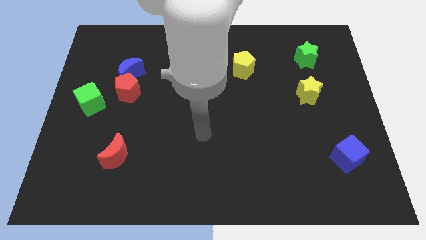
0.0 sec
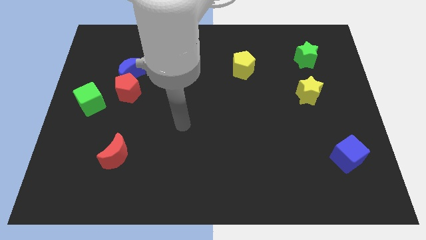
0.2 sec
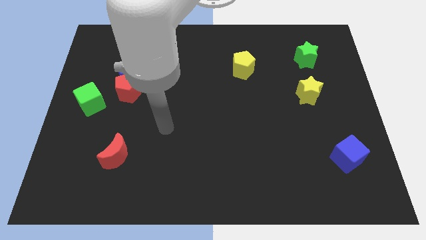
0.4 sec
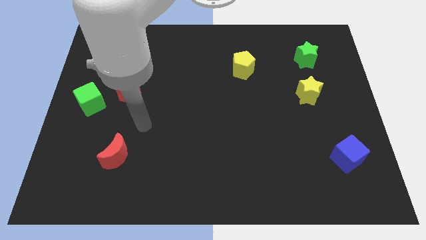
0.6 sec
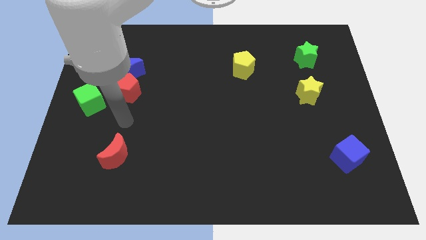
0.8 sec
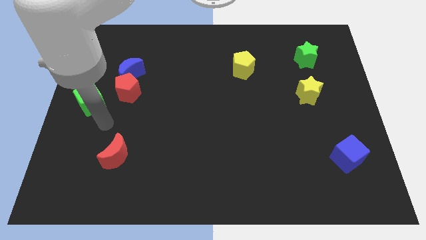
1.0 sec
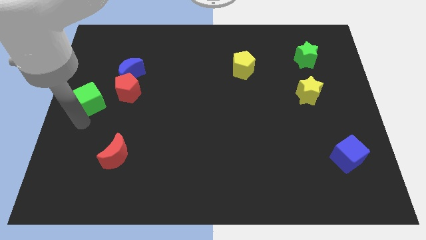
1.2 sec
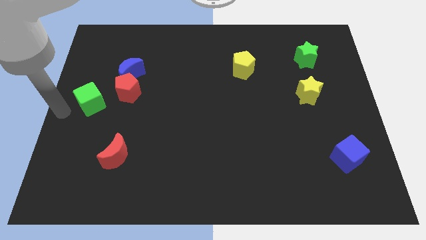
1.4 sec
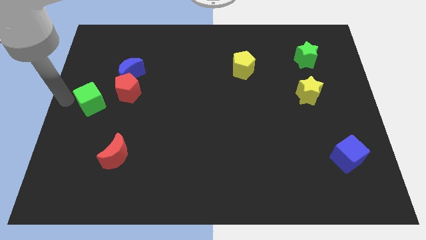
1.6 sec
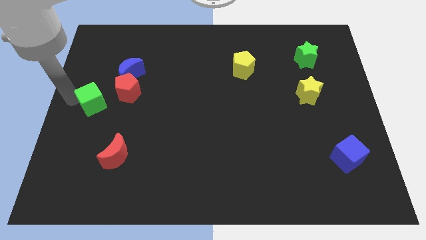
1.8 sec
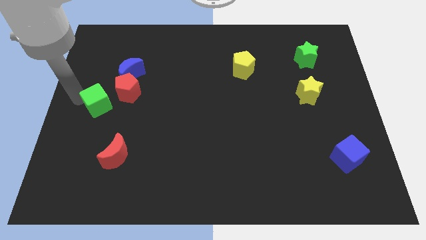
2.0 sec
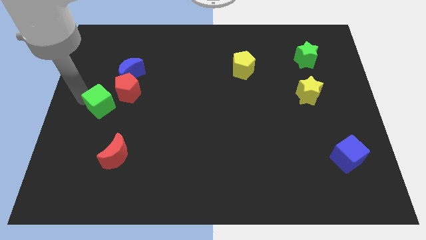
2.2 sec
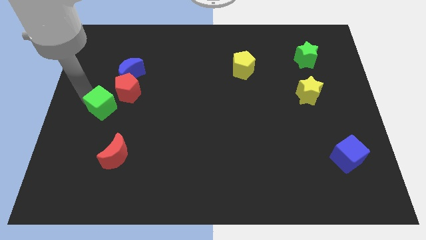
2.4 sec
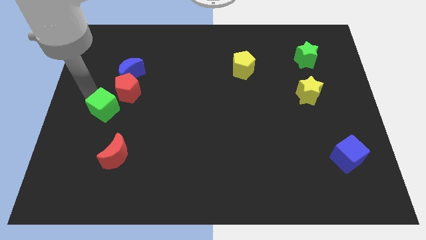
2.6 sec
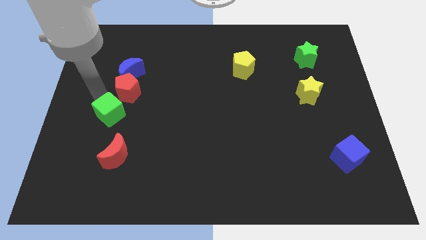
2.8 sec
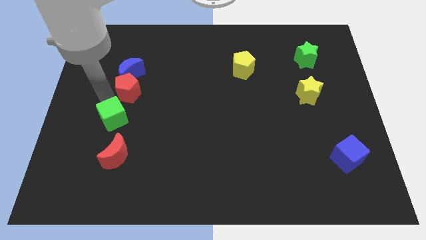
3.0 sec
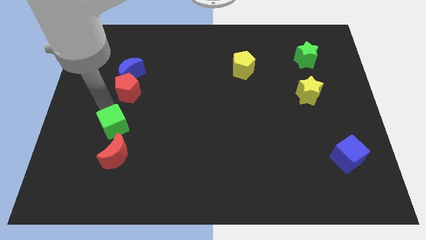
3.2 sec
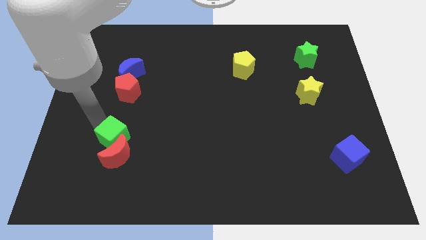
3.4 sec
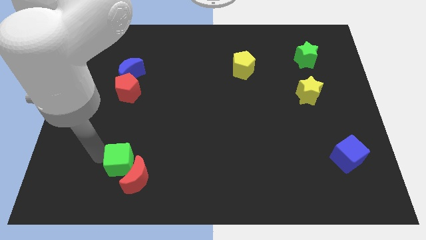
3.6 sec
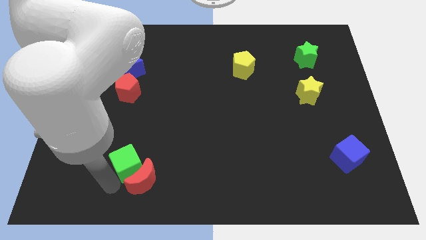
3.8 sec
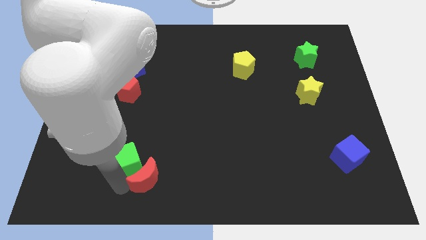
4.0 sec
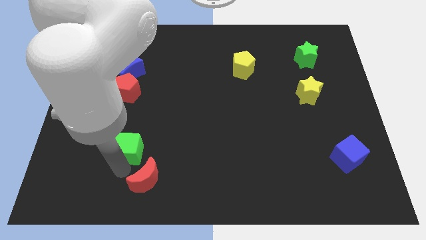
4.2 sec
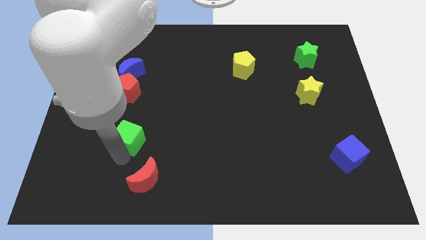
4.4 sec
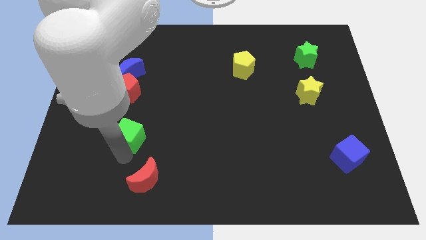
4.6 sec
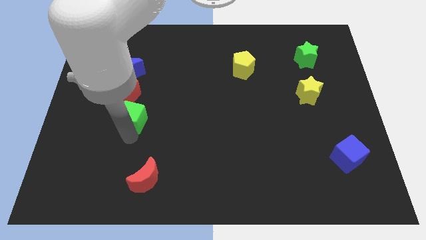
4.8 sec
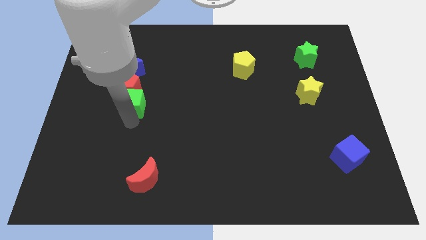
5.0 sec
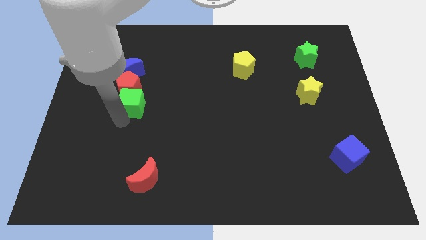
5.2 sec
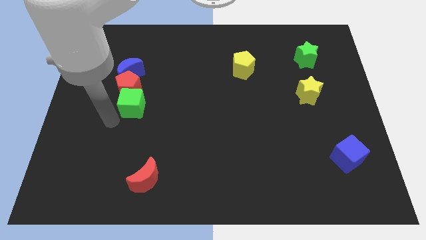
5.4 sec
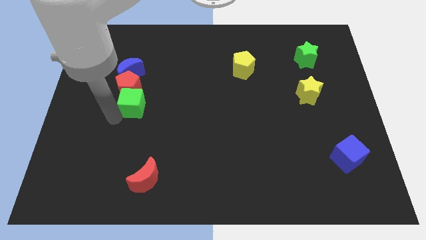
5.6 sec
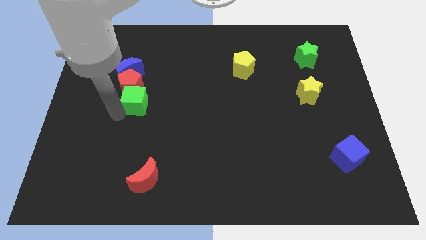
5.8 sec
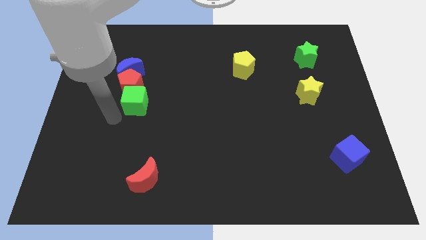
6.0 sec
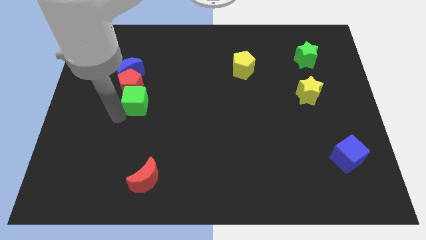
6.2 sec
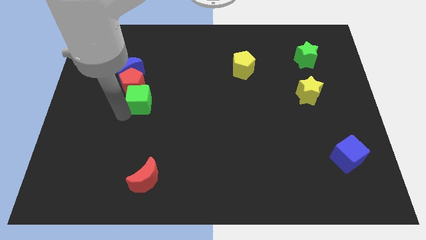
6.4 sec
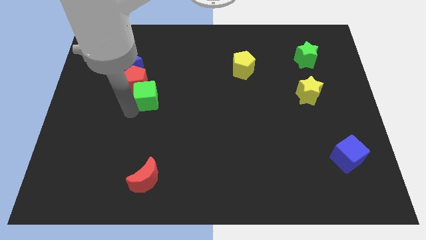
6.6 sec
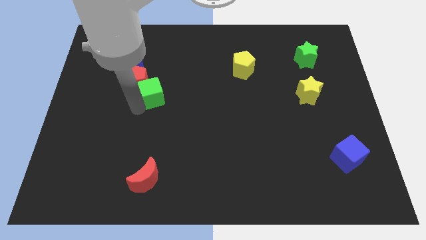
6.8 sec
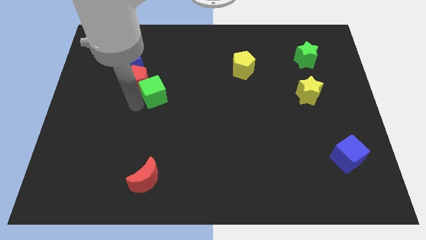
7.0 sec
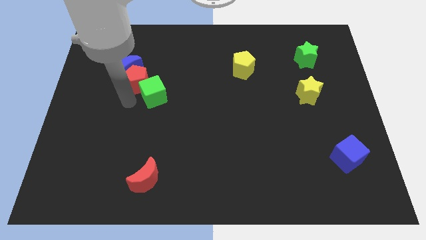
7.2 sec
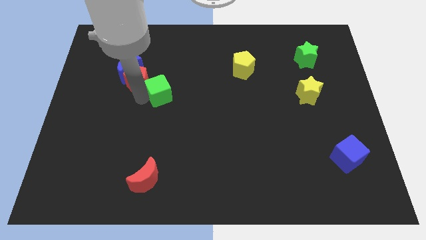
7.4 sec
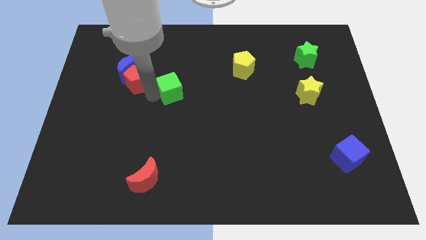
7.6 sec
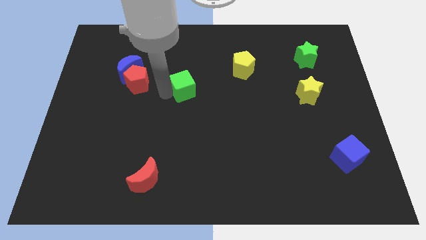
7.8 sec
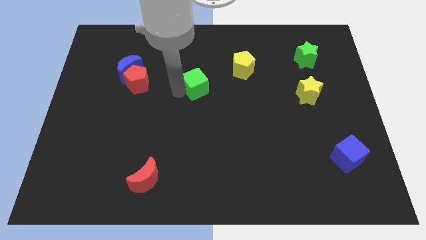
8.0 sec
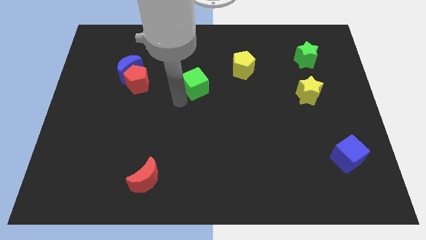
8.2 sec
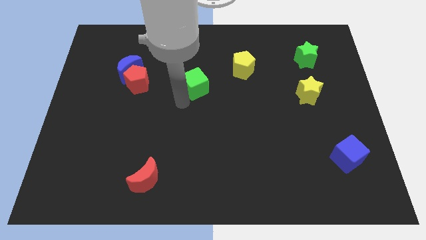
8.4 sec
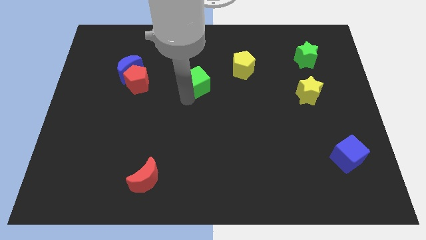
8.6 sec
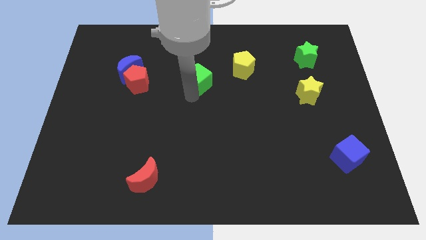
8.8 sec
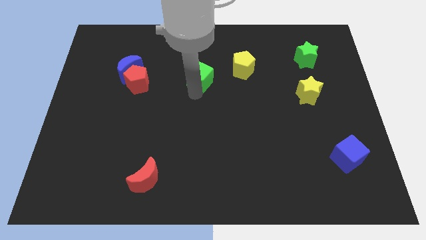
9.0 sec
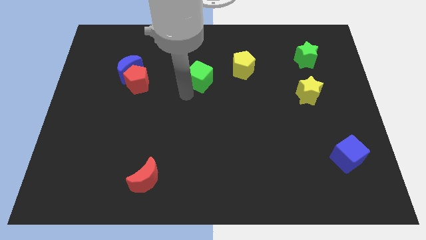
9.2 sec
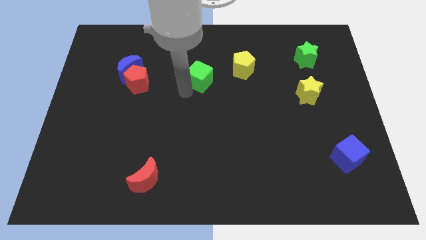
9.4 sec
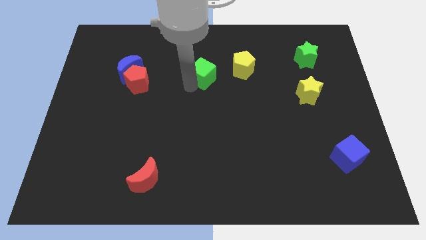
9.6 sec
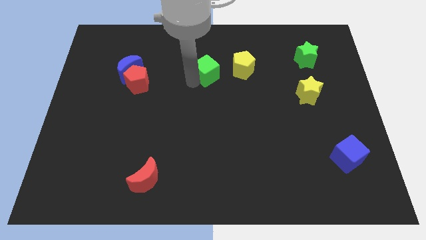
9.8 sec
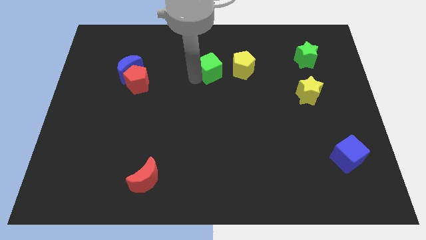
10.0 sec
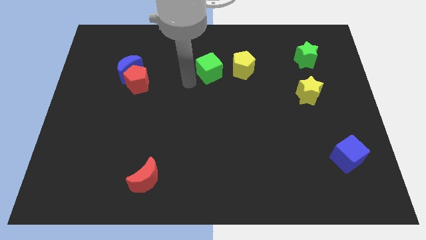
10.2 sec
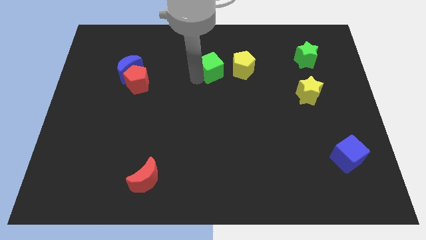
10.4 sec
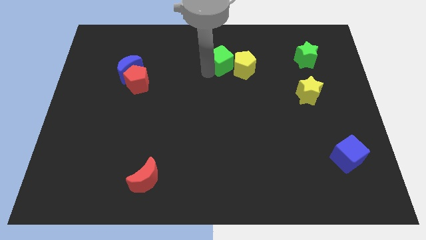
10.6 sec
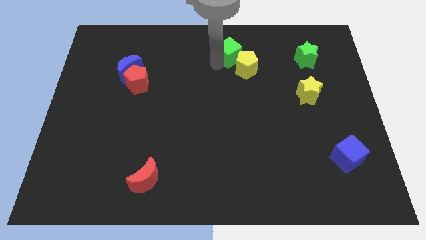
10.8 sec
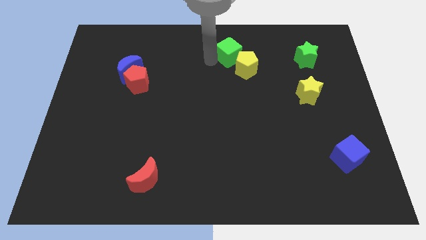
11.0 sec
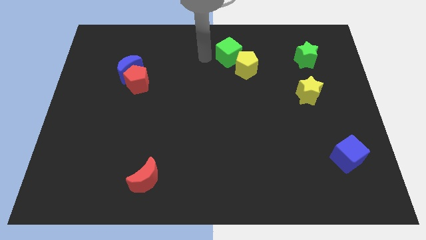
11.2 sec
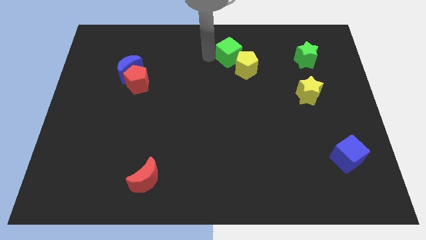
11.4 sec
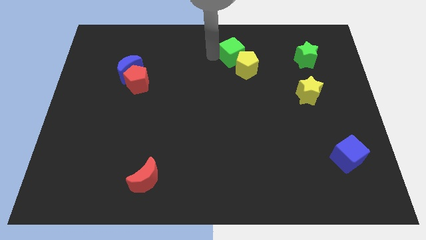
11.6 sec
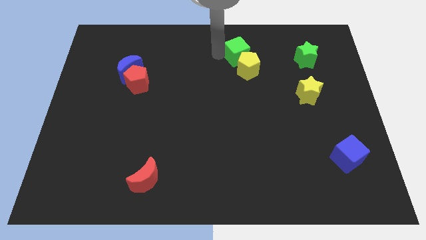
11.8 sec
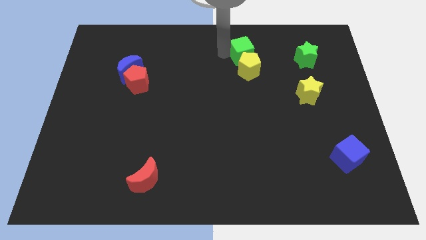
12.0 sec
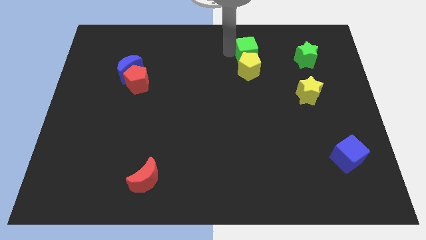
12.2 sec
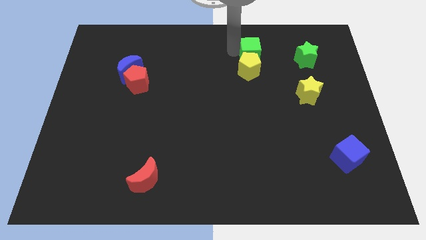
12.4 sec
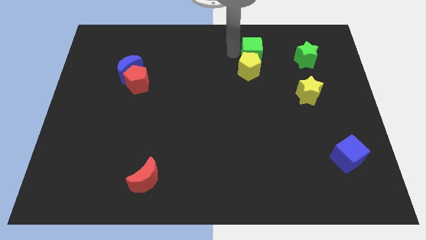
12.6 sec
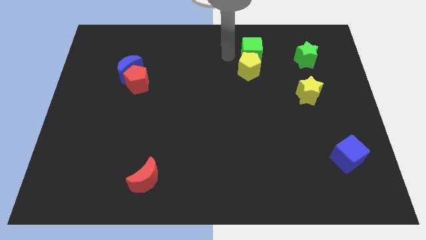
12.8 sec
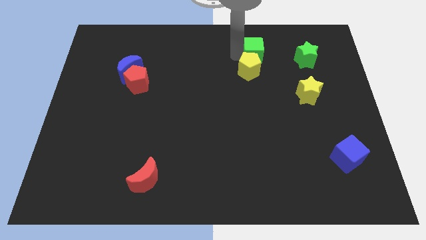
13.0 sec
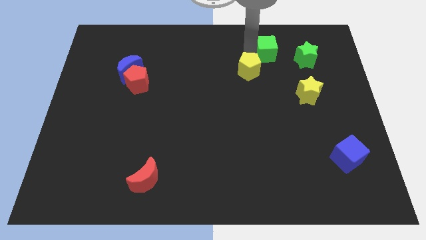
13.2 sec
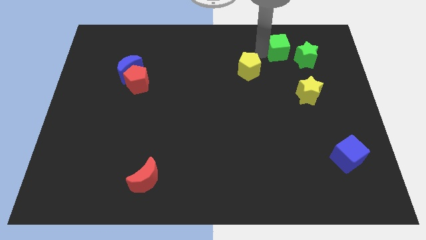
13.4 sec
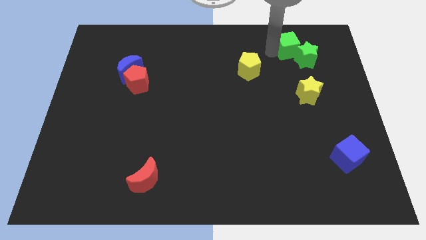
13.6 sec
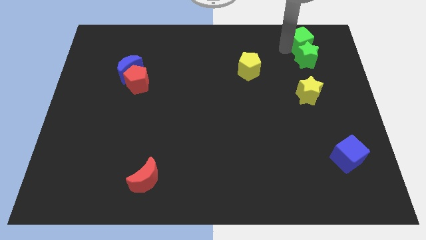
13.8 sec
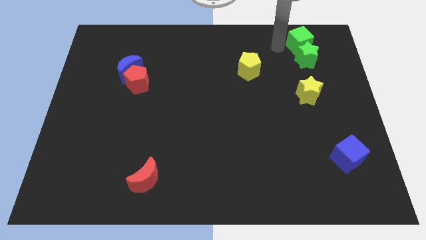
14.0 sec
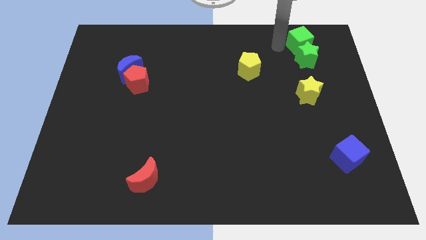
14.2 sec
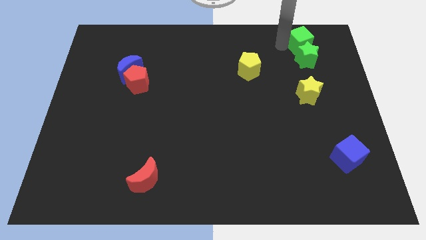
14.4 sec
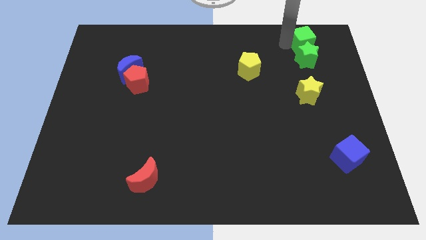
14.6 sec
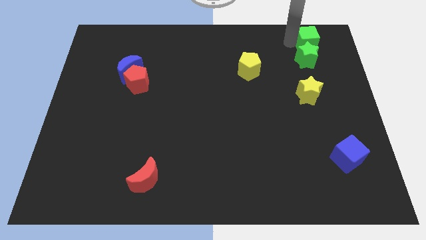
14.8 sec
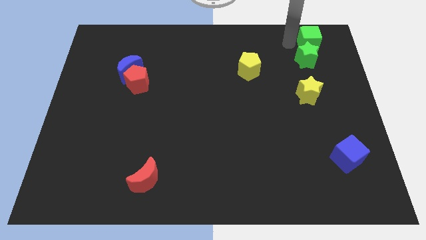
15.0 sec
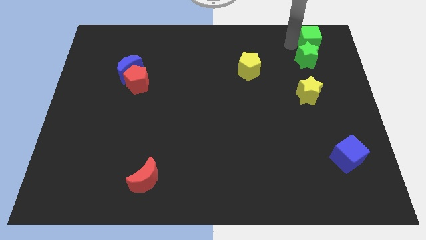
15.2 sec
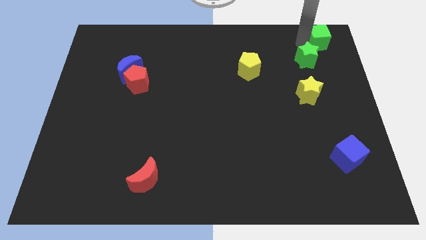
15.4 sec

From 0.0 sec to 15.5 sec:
push the green cube to the upper right corner
